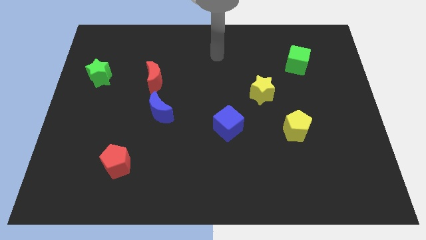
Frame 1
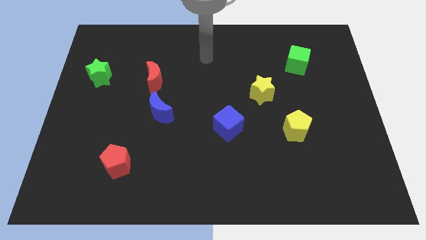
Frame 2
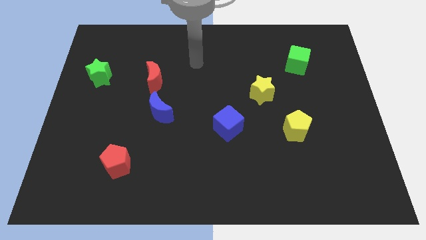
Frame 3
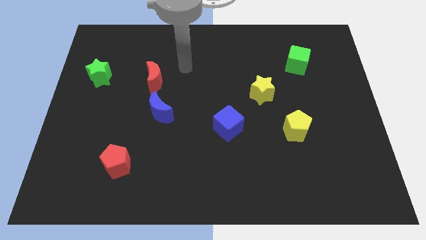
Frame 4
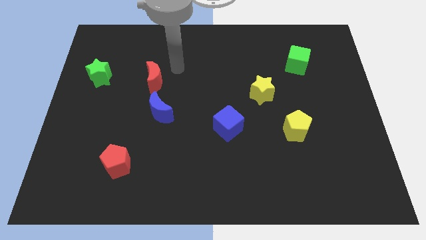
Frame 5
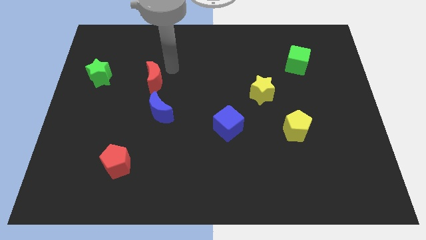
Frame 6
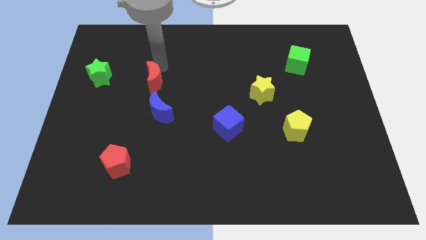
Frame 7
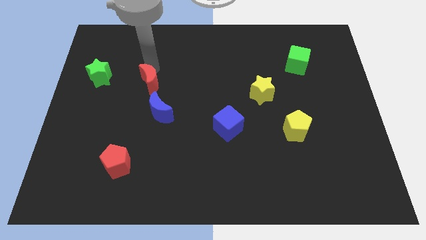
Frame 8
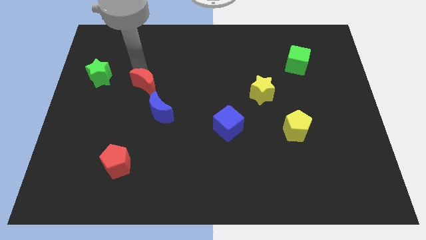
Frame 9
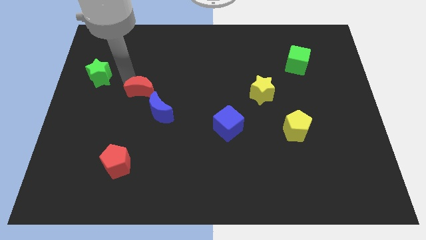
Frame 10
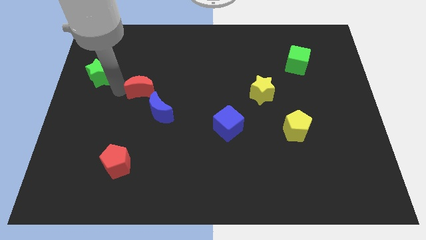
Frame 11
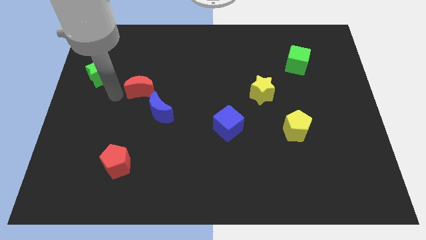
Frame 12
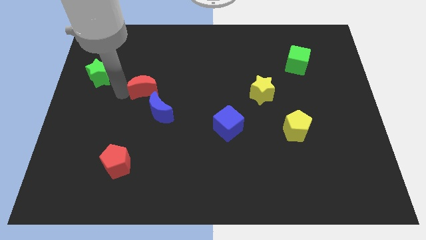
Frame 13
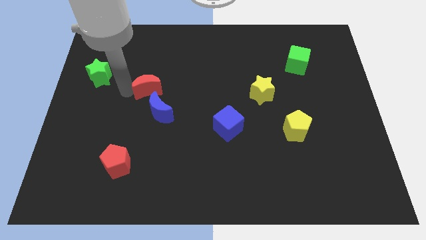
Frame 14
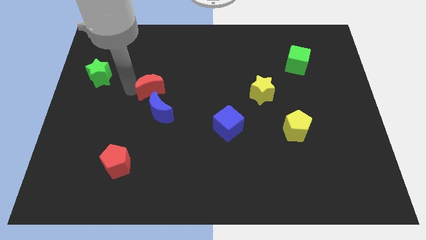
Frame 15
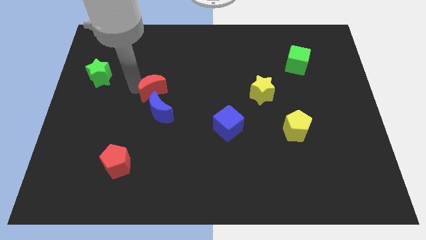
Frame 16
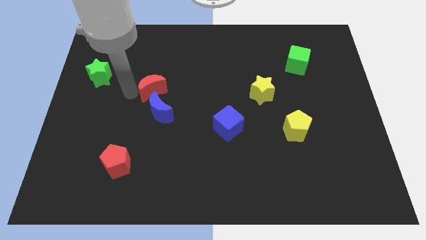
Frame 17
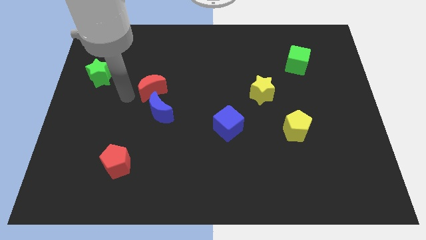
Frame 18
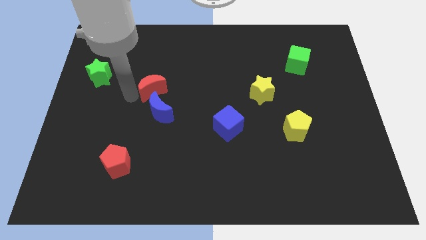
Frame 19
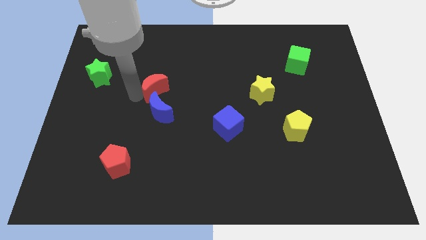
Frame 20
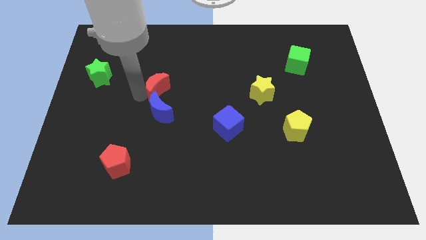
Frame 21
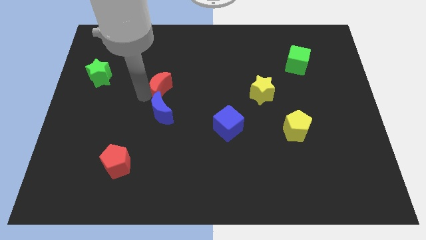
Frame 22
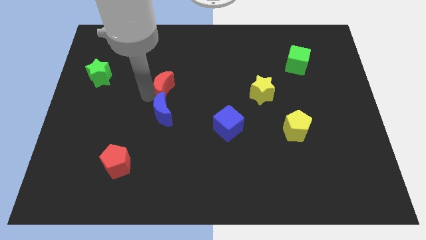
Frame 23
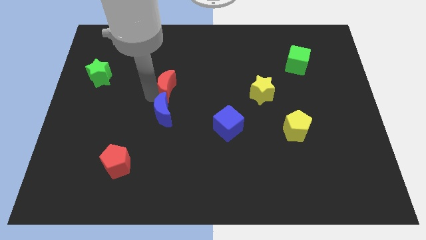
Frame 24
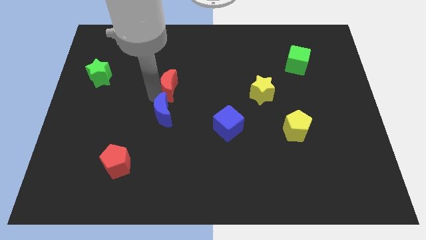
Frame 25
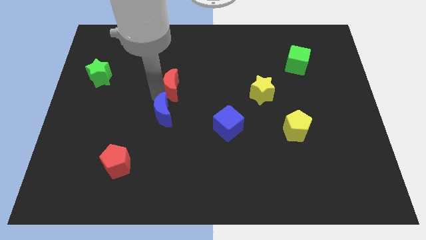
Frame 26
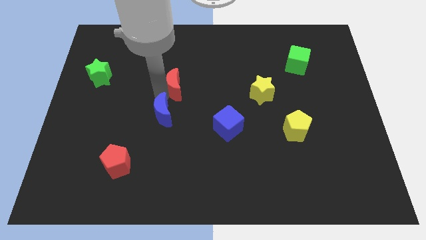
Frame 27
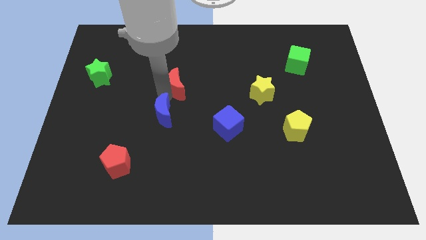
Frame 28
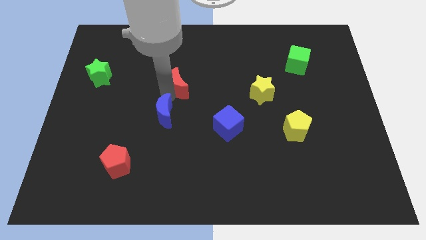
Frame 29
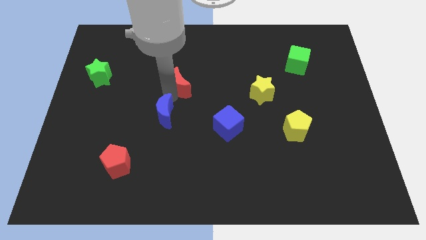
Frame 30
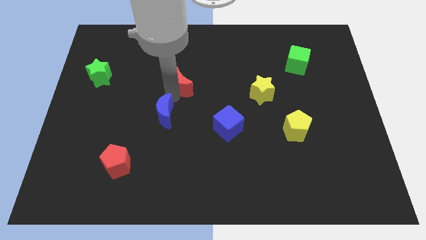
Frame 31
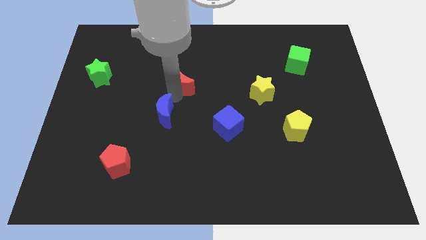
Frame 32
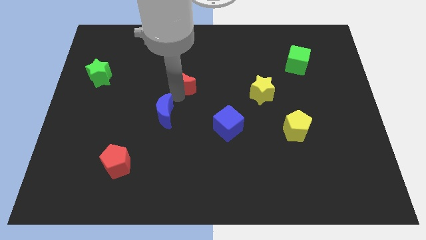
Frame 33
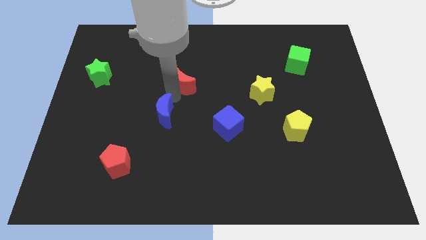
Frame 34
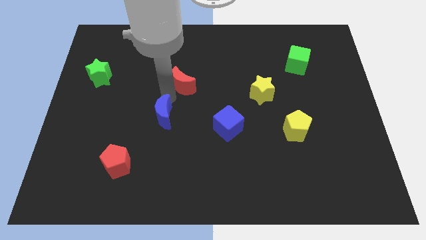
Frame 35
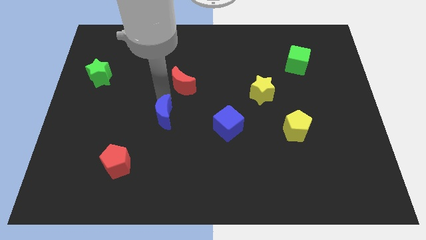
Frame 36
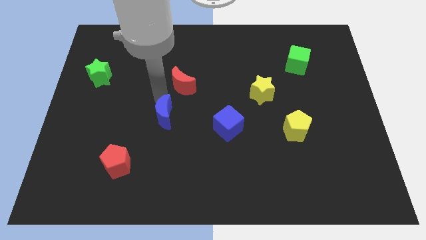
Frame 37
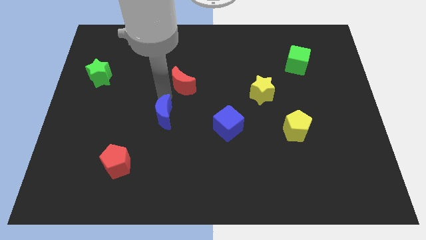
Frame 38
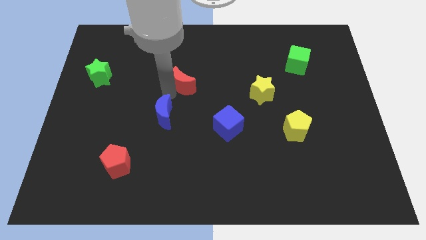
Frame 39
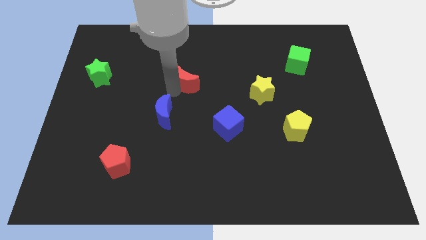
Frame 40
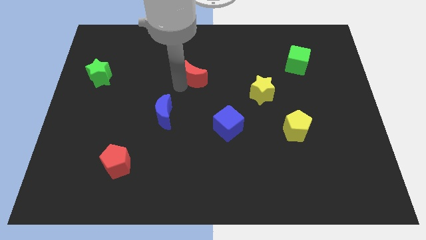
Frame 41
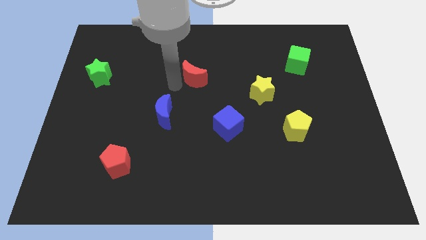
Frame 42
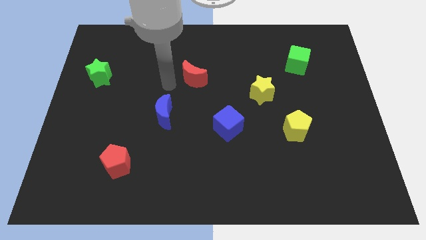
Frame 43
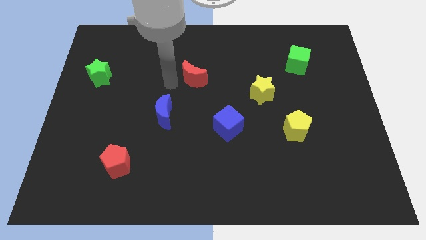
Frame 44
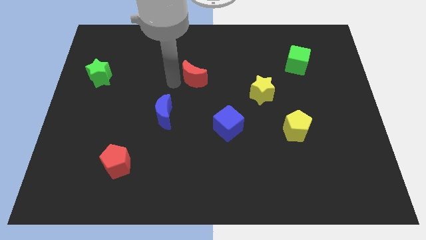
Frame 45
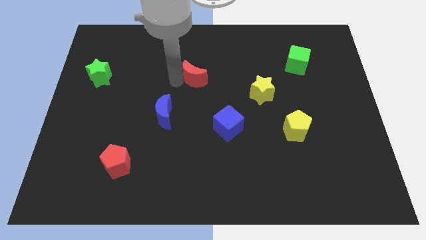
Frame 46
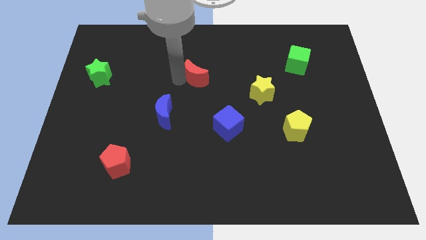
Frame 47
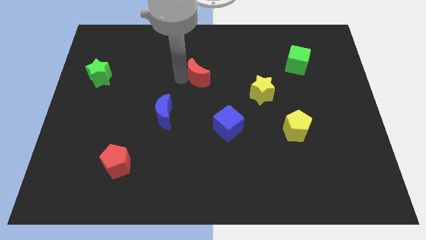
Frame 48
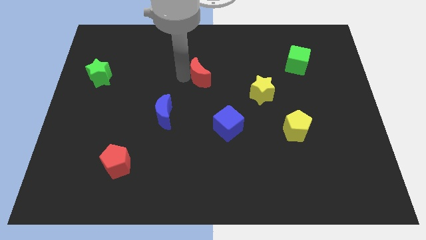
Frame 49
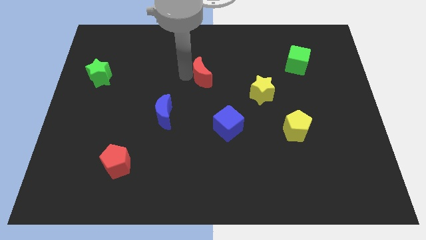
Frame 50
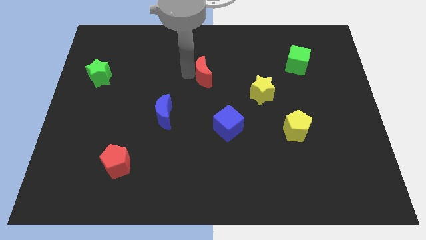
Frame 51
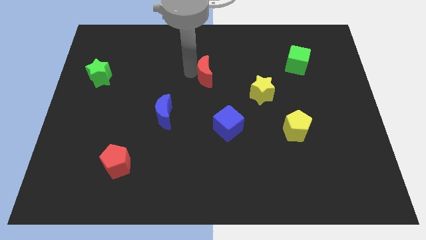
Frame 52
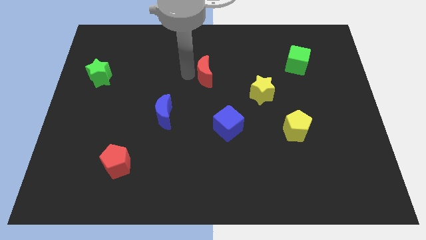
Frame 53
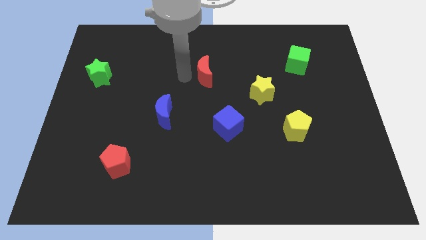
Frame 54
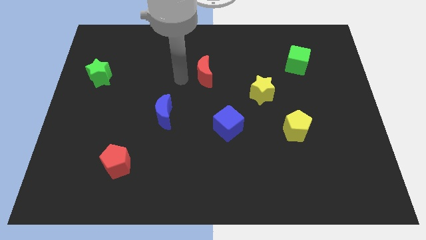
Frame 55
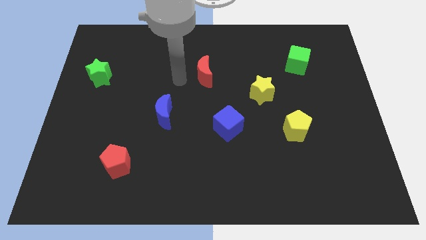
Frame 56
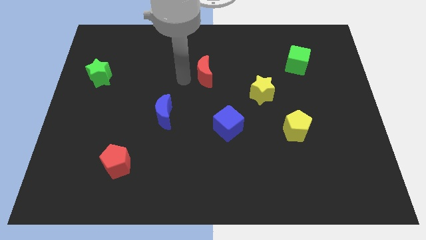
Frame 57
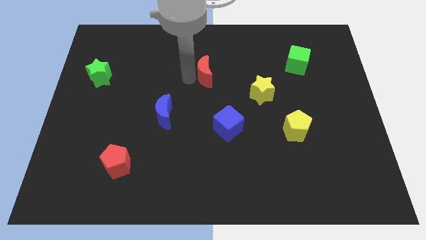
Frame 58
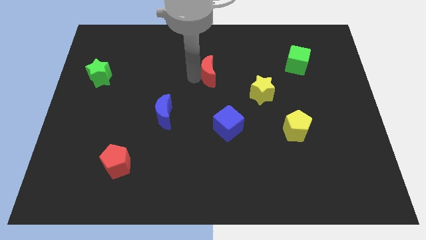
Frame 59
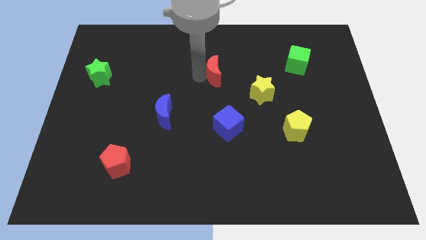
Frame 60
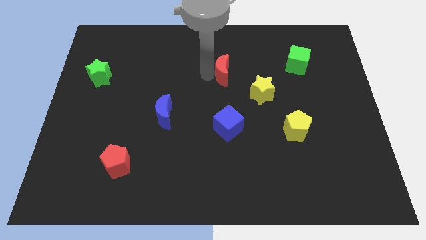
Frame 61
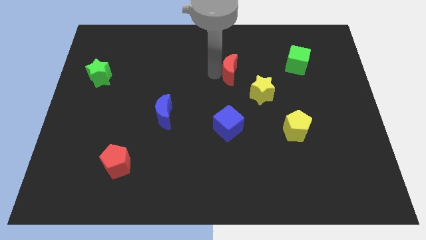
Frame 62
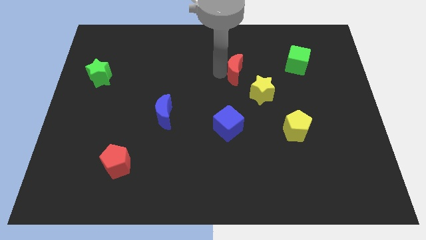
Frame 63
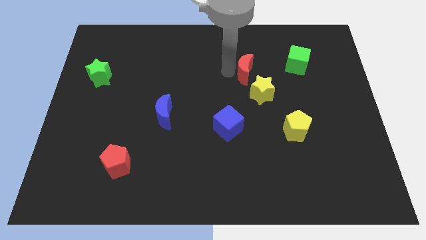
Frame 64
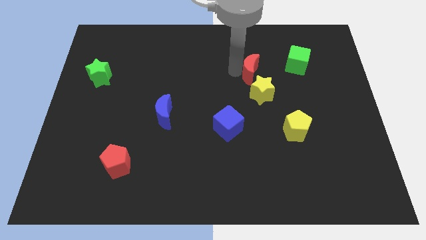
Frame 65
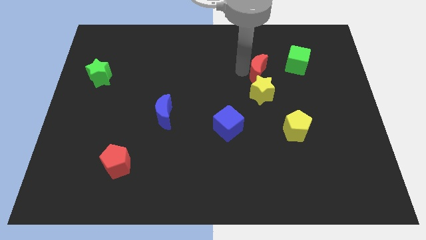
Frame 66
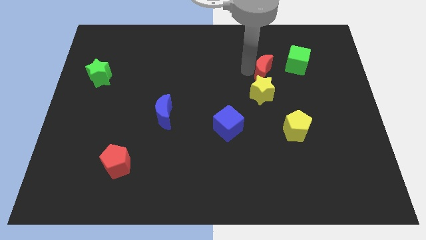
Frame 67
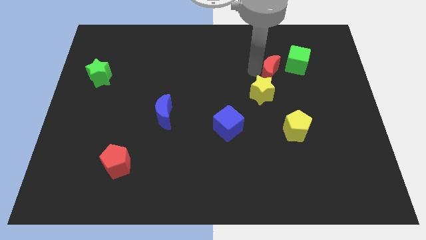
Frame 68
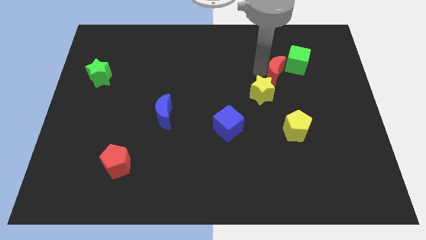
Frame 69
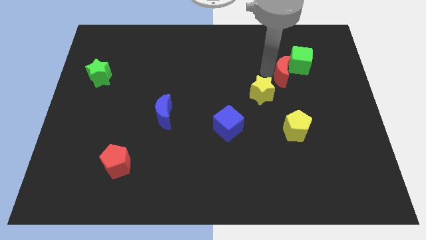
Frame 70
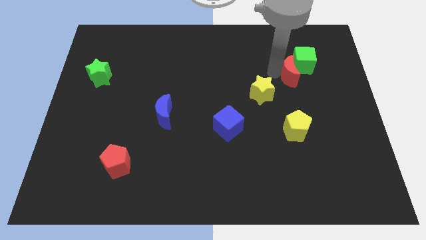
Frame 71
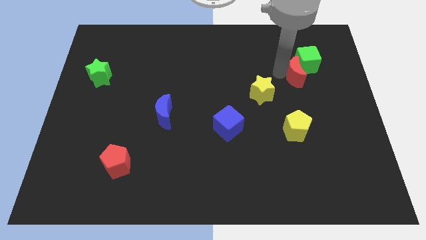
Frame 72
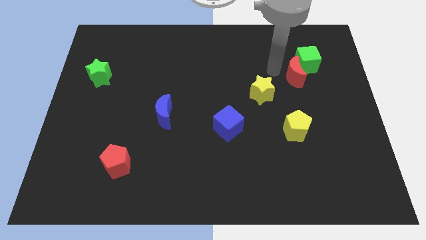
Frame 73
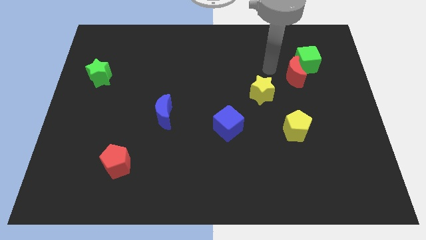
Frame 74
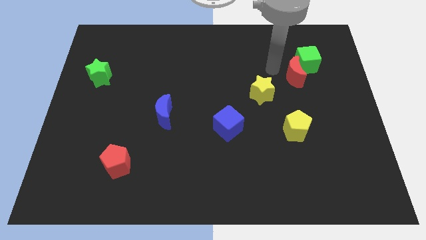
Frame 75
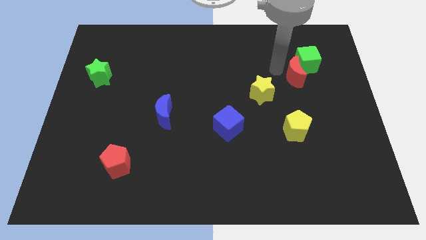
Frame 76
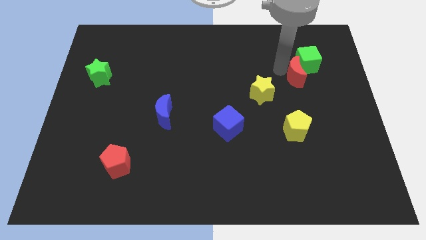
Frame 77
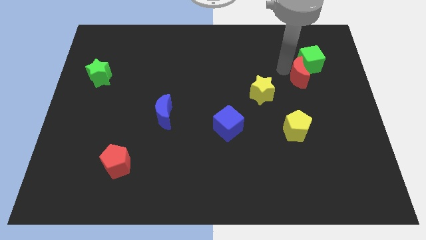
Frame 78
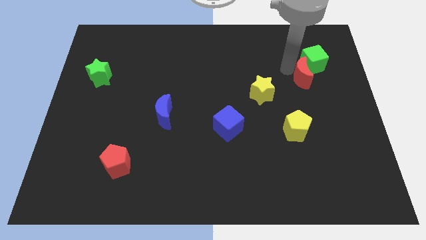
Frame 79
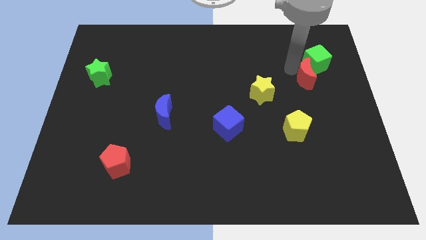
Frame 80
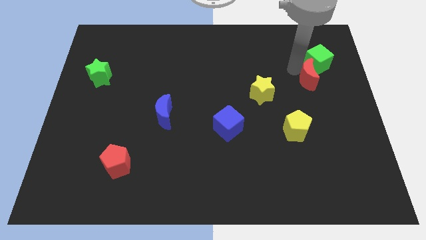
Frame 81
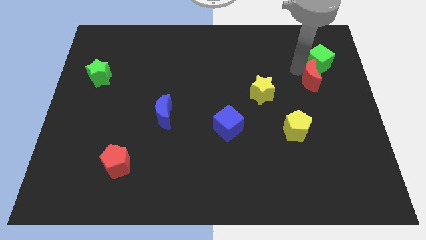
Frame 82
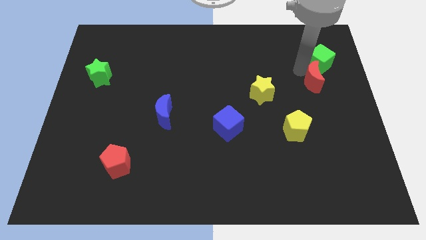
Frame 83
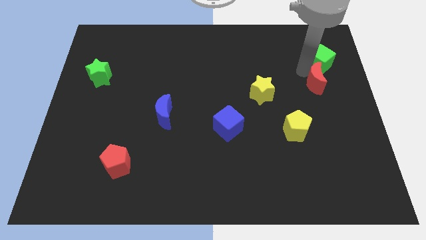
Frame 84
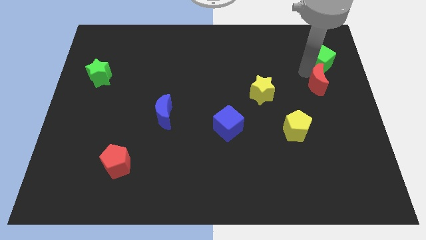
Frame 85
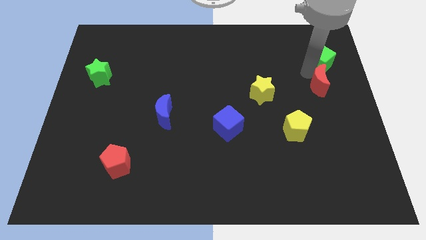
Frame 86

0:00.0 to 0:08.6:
move the red moon to the right side
